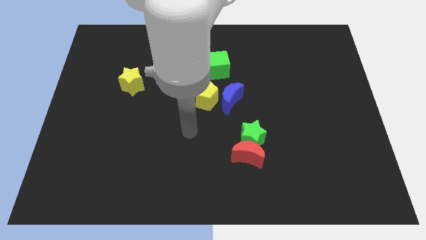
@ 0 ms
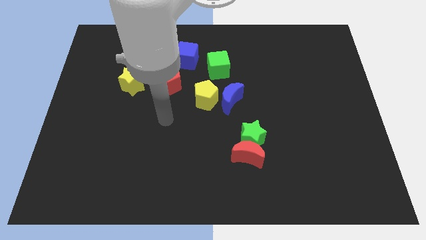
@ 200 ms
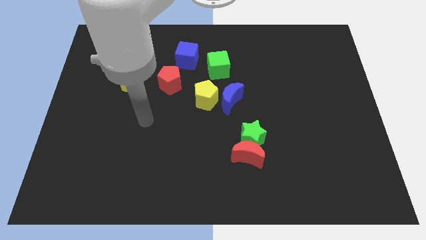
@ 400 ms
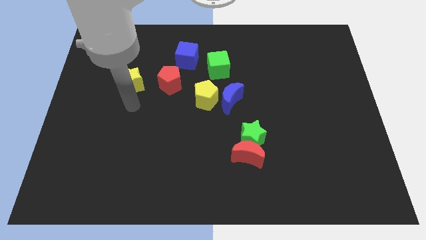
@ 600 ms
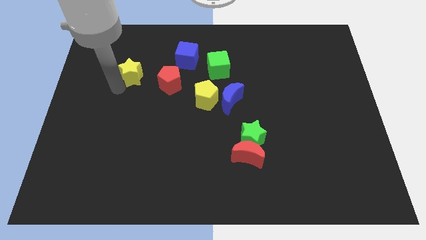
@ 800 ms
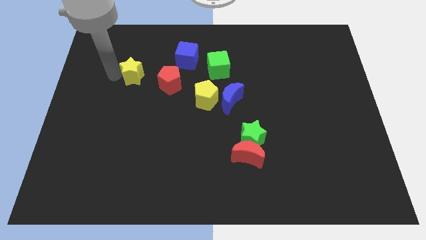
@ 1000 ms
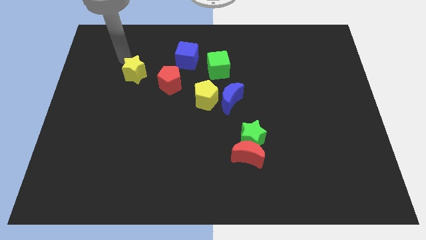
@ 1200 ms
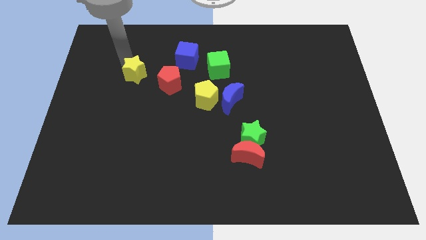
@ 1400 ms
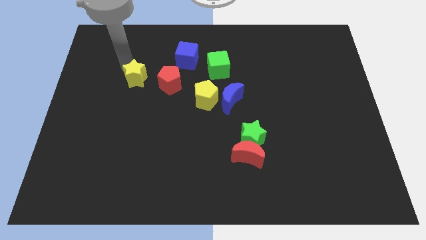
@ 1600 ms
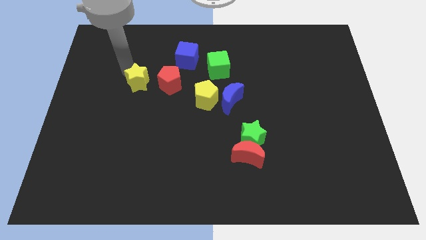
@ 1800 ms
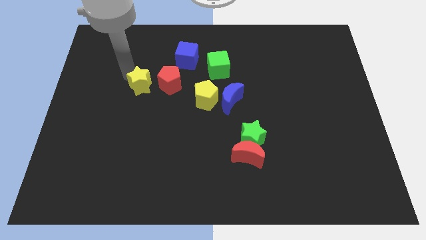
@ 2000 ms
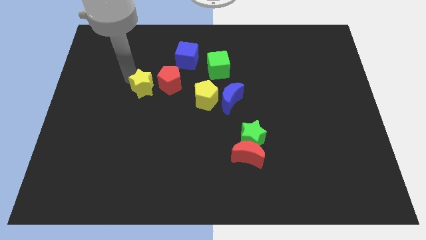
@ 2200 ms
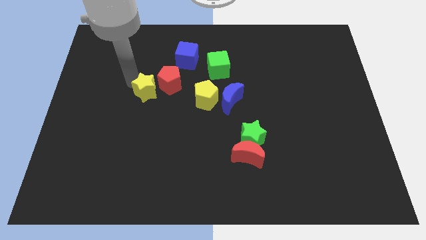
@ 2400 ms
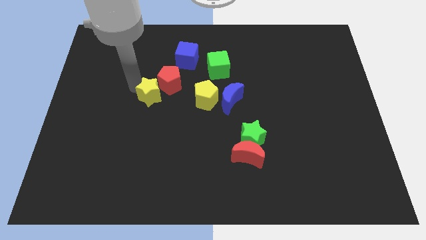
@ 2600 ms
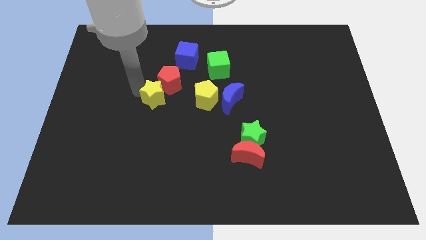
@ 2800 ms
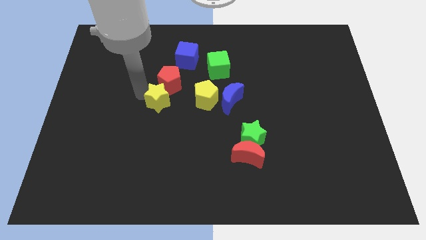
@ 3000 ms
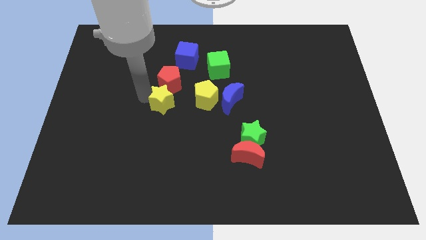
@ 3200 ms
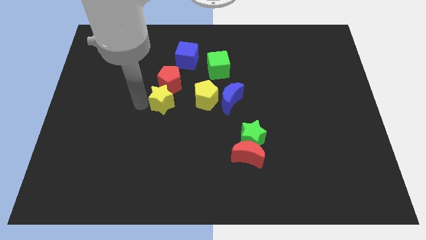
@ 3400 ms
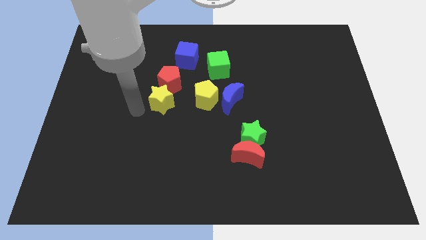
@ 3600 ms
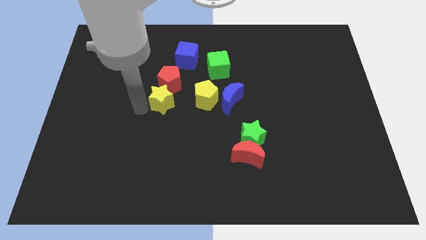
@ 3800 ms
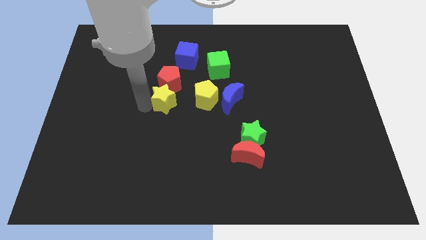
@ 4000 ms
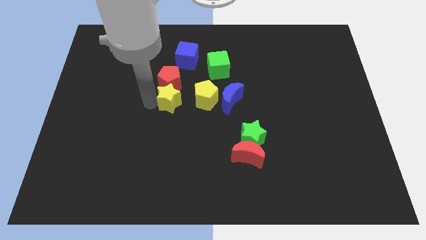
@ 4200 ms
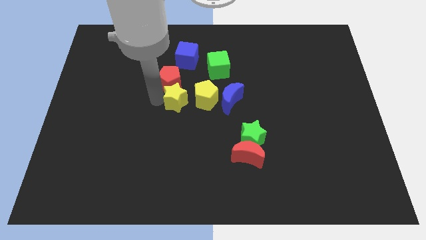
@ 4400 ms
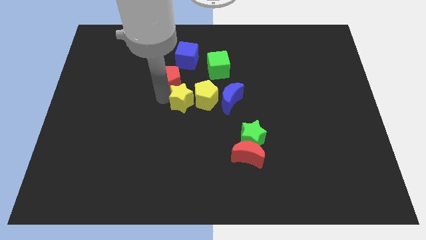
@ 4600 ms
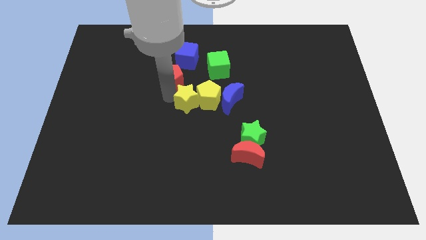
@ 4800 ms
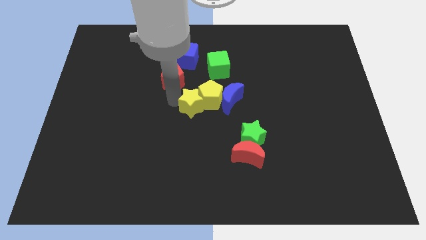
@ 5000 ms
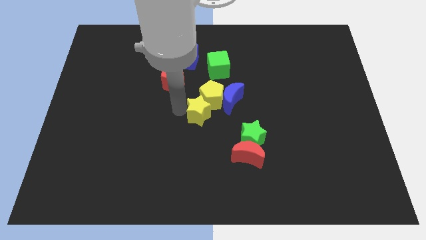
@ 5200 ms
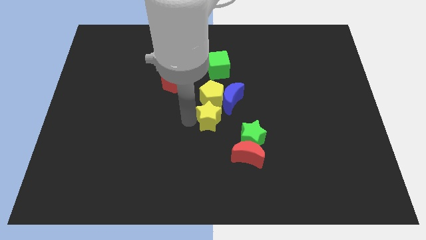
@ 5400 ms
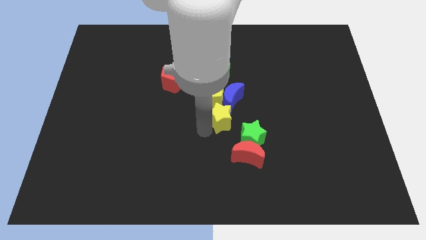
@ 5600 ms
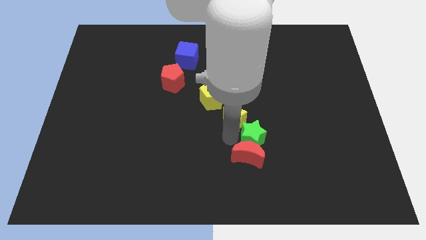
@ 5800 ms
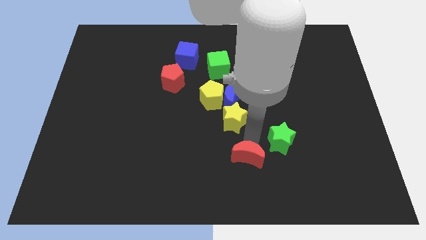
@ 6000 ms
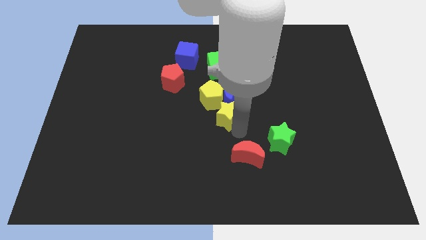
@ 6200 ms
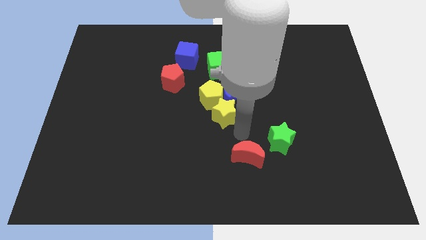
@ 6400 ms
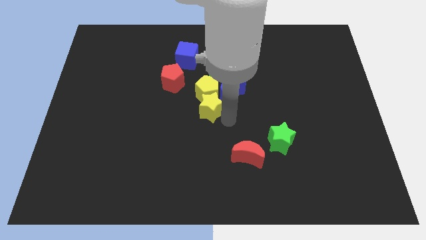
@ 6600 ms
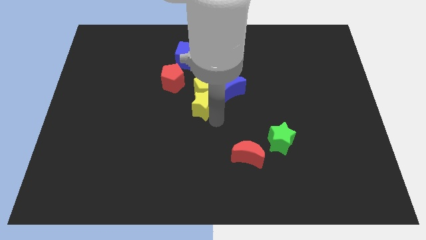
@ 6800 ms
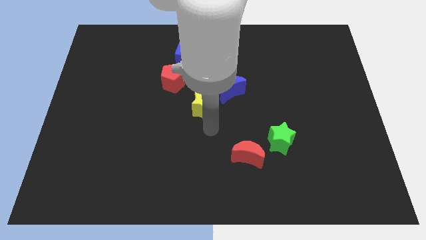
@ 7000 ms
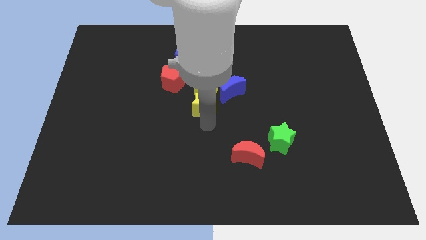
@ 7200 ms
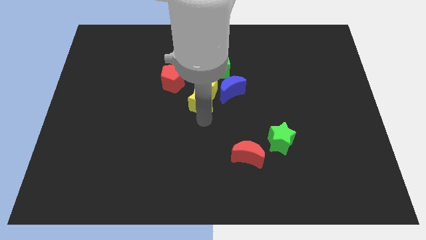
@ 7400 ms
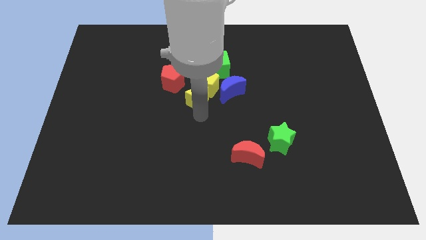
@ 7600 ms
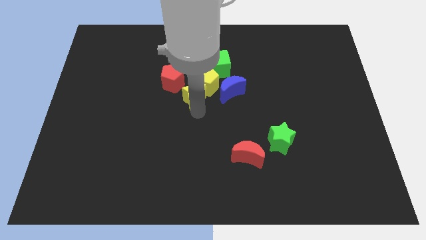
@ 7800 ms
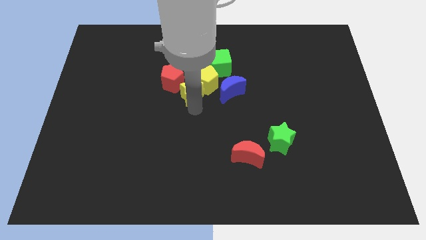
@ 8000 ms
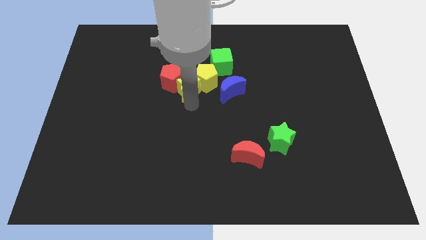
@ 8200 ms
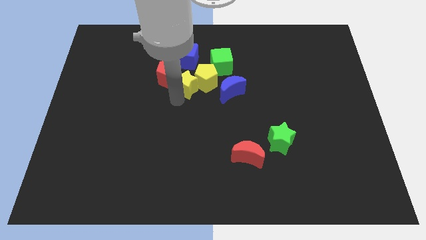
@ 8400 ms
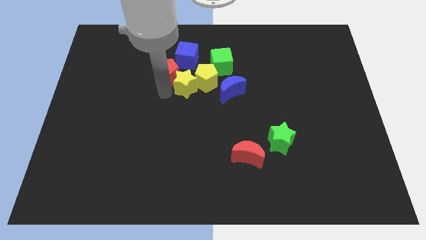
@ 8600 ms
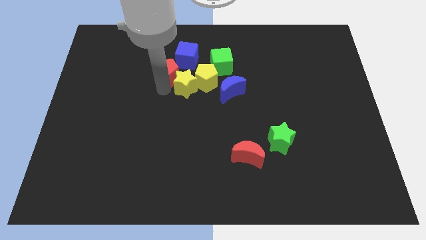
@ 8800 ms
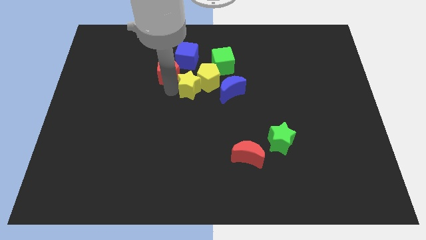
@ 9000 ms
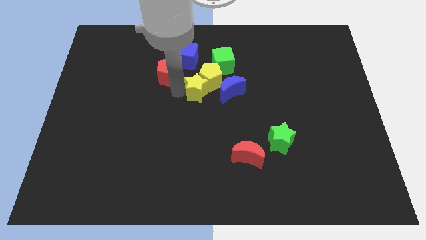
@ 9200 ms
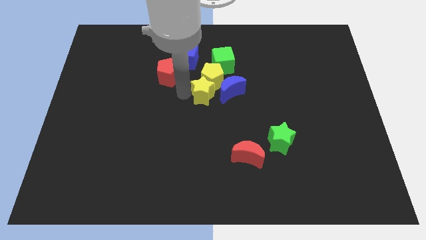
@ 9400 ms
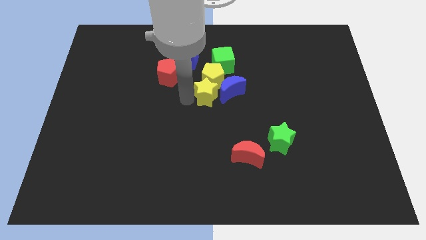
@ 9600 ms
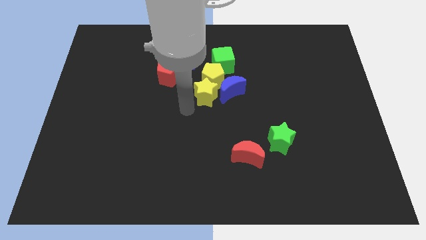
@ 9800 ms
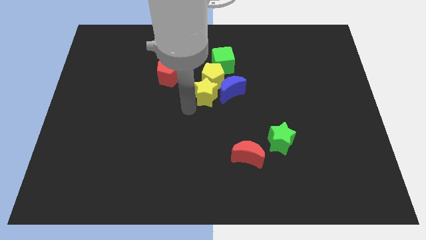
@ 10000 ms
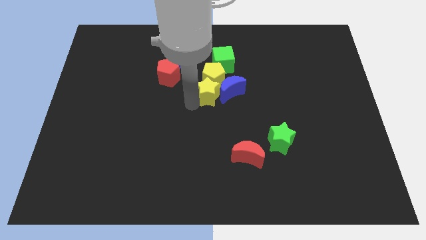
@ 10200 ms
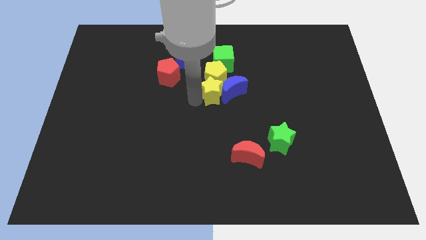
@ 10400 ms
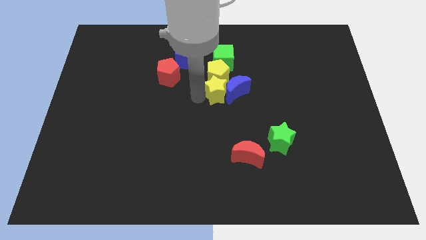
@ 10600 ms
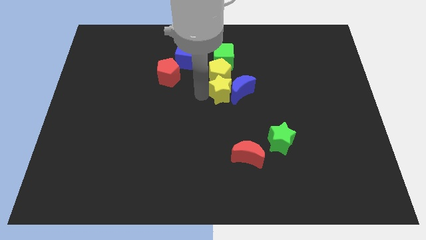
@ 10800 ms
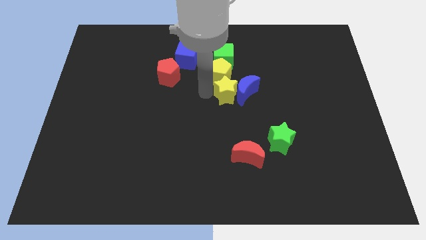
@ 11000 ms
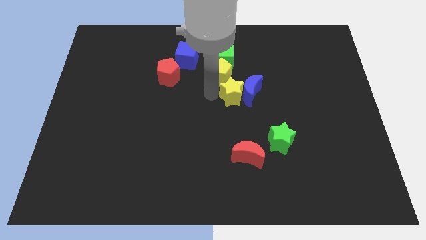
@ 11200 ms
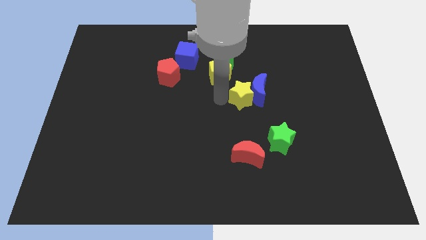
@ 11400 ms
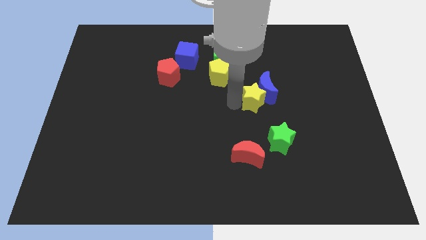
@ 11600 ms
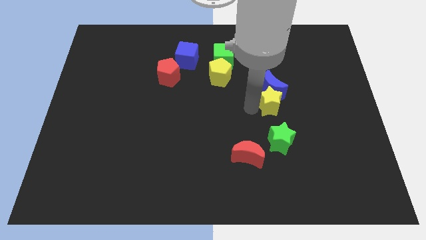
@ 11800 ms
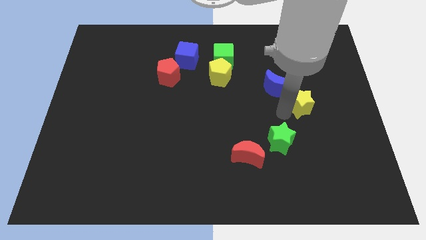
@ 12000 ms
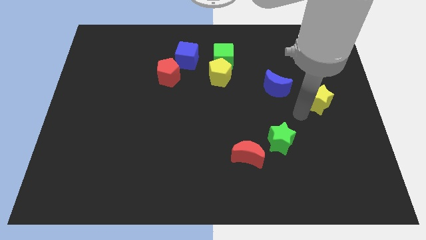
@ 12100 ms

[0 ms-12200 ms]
put the yellow star to the center right
